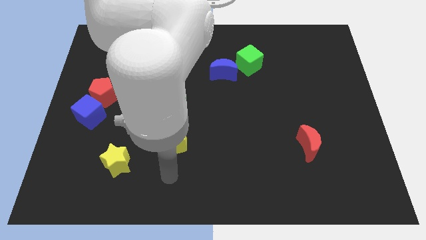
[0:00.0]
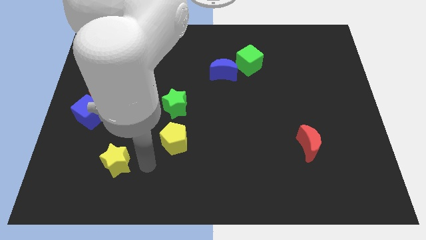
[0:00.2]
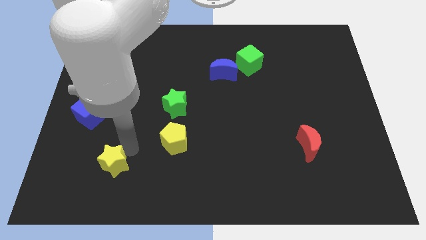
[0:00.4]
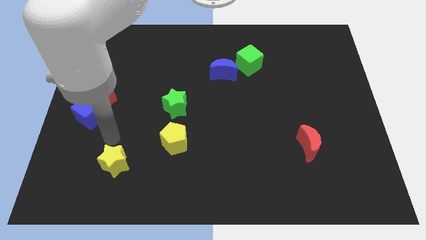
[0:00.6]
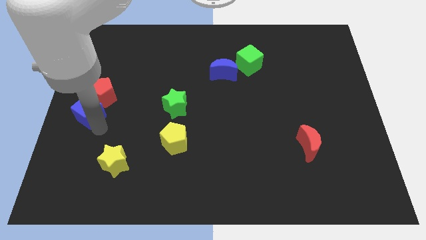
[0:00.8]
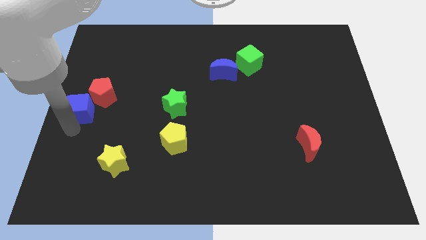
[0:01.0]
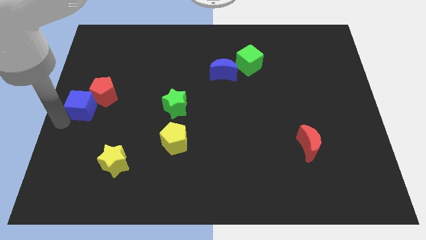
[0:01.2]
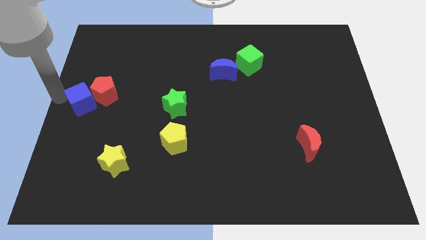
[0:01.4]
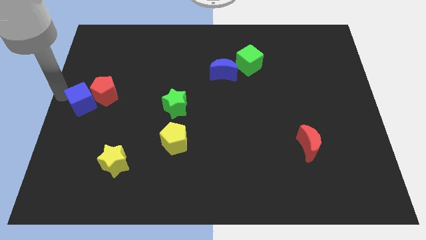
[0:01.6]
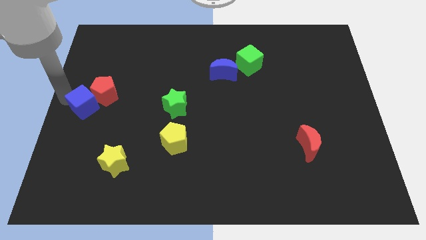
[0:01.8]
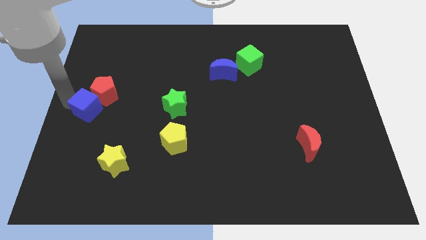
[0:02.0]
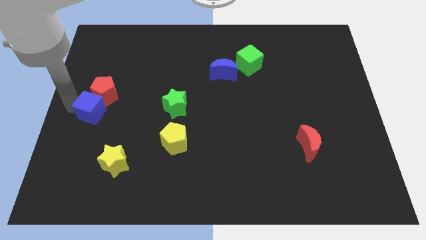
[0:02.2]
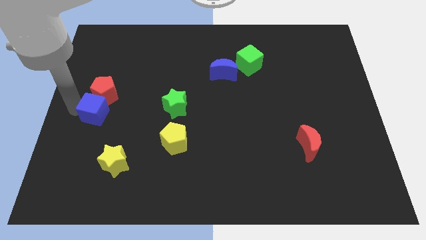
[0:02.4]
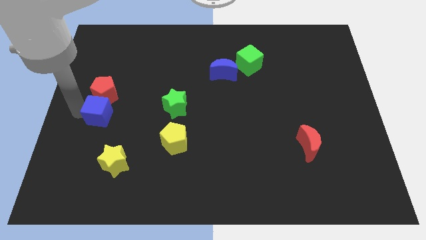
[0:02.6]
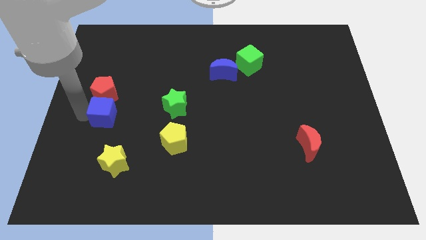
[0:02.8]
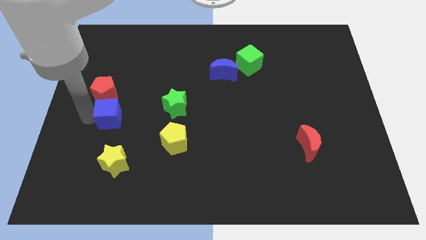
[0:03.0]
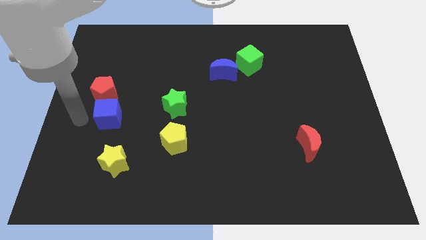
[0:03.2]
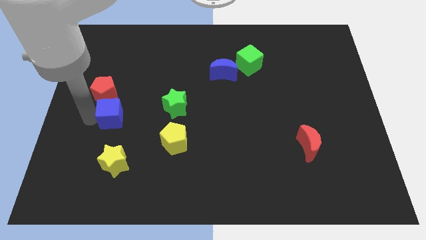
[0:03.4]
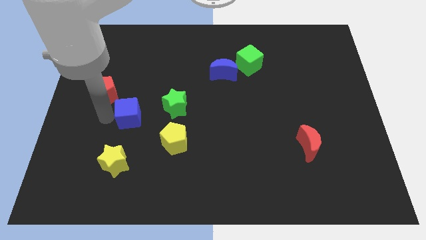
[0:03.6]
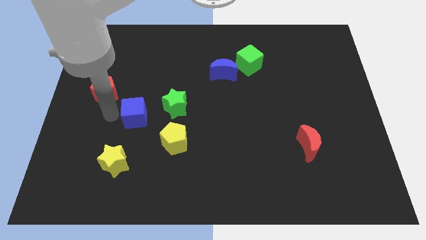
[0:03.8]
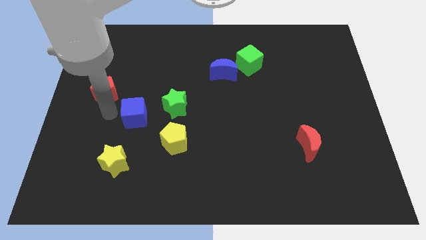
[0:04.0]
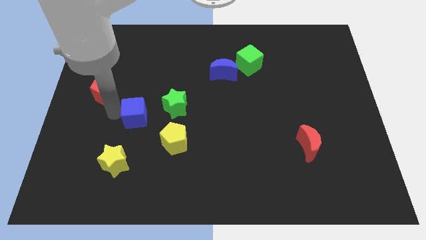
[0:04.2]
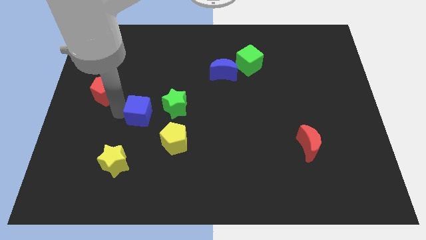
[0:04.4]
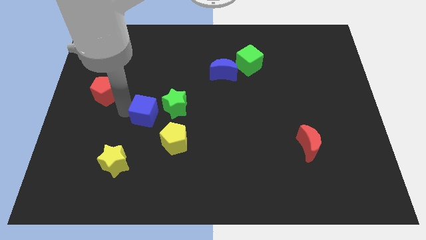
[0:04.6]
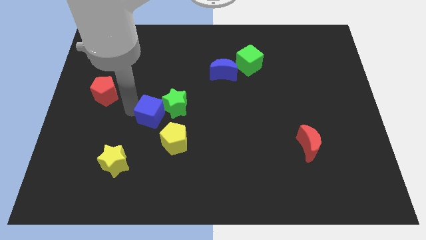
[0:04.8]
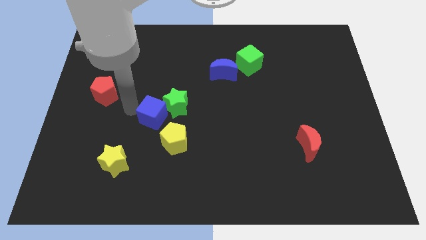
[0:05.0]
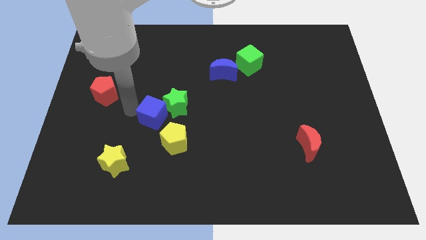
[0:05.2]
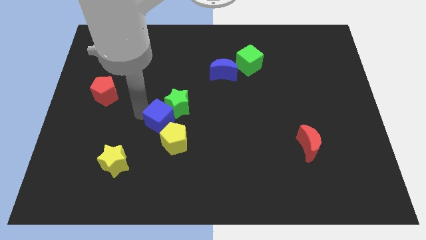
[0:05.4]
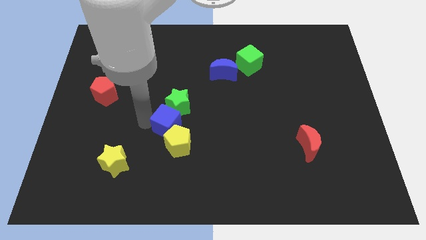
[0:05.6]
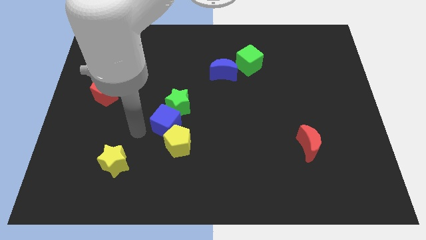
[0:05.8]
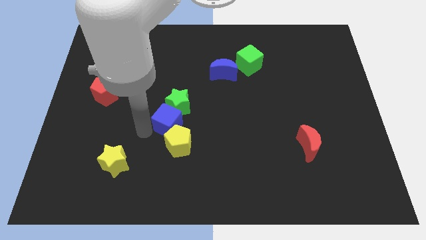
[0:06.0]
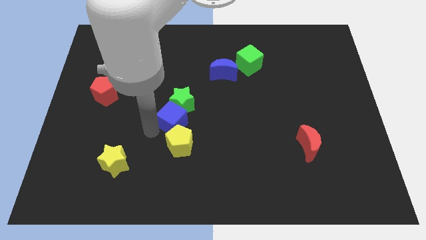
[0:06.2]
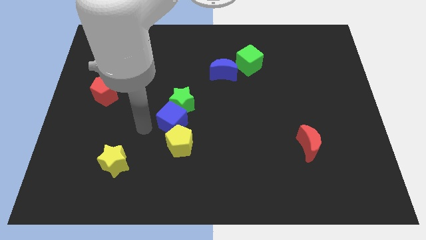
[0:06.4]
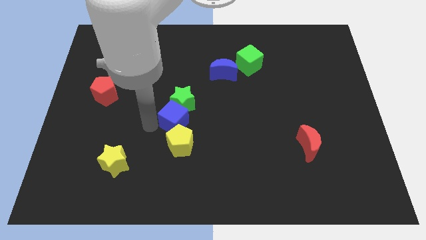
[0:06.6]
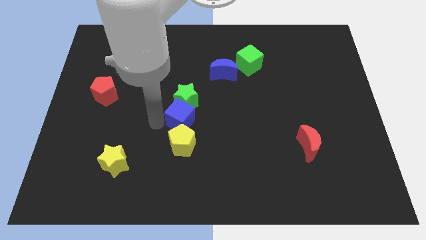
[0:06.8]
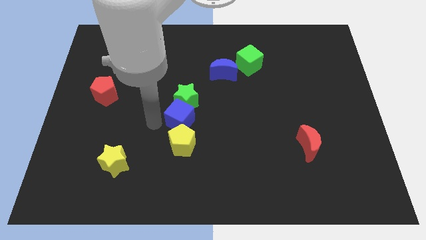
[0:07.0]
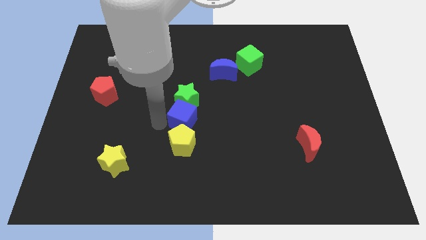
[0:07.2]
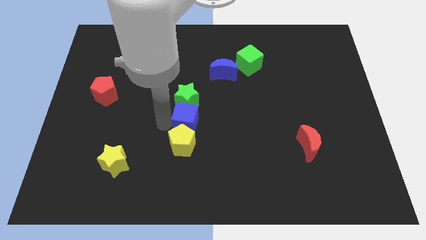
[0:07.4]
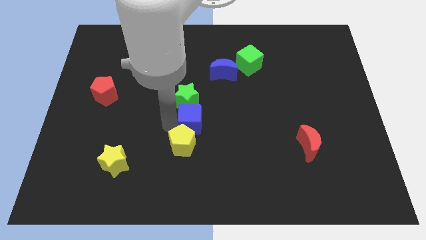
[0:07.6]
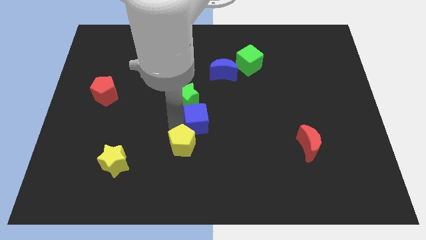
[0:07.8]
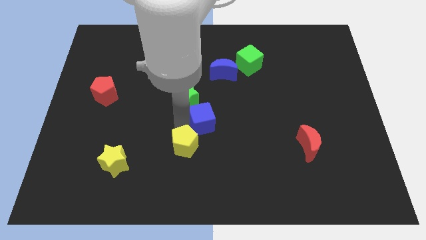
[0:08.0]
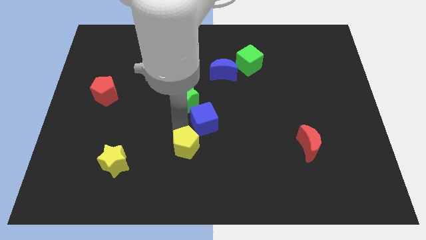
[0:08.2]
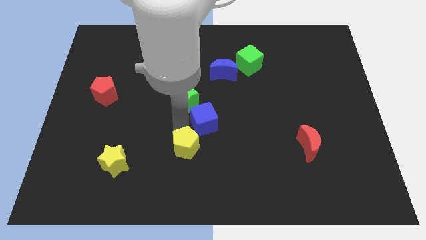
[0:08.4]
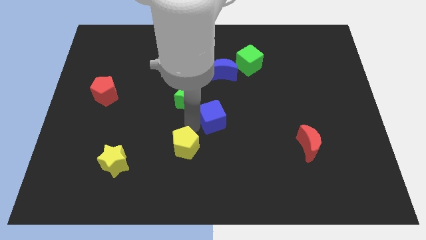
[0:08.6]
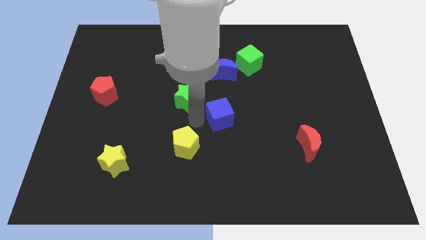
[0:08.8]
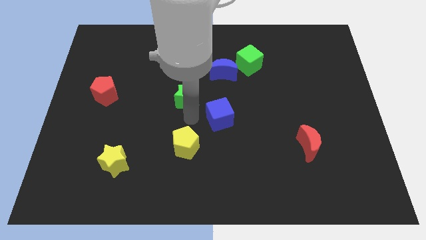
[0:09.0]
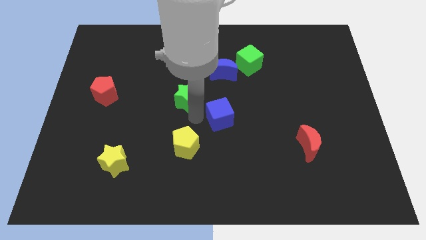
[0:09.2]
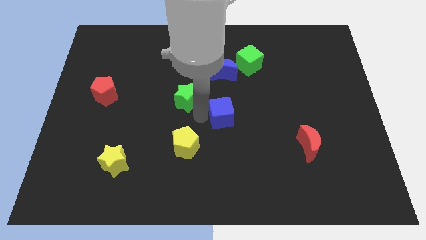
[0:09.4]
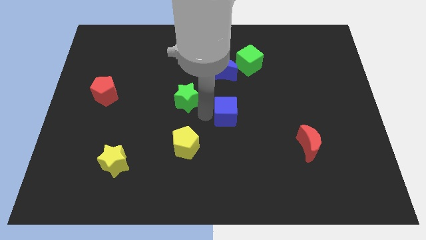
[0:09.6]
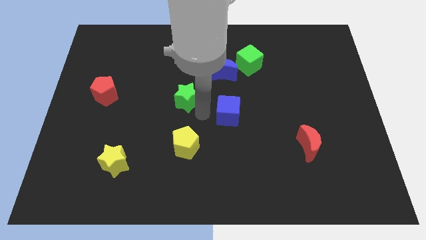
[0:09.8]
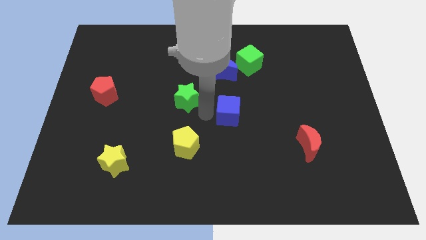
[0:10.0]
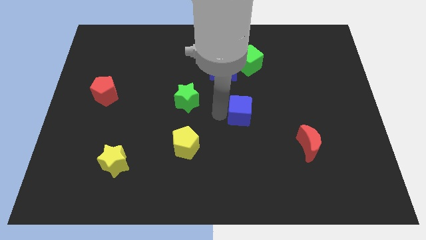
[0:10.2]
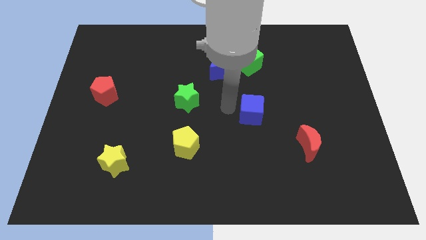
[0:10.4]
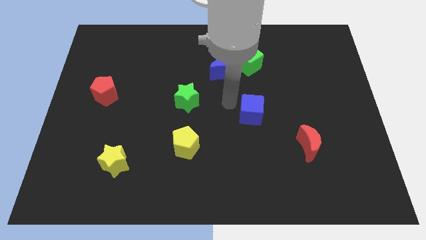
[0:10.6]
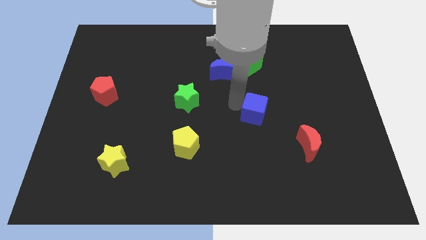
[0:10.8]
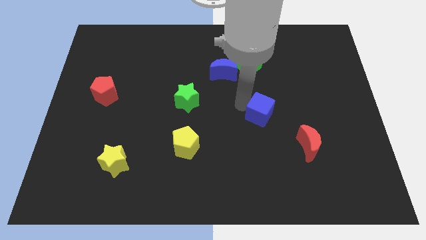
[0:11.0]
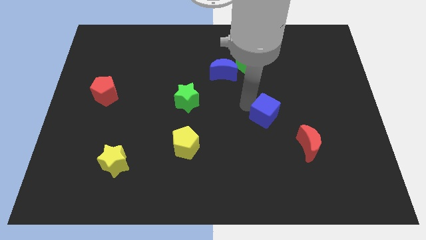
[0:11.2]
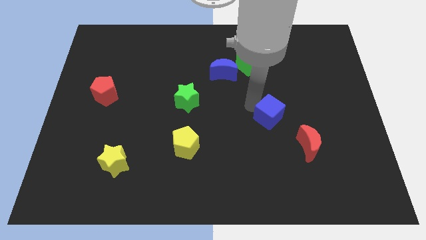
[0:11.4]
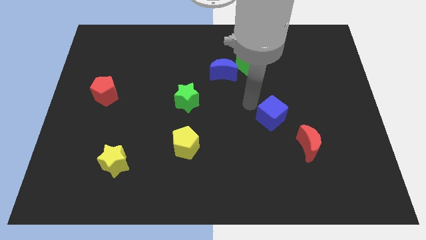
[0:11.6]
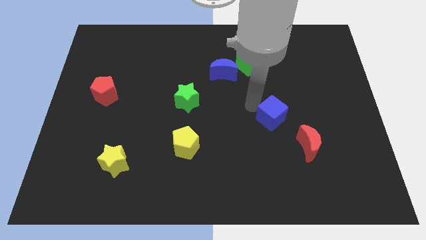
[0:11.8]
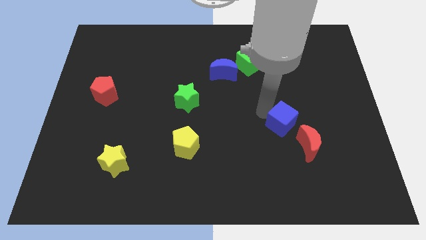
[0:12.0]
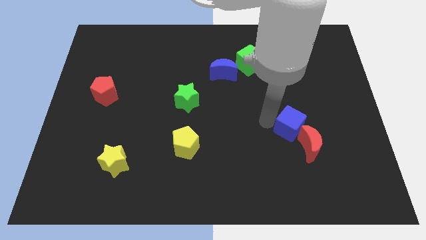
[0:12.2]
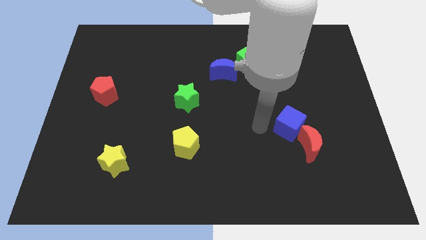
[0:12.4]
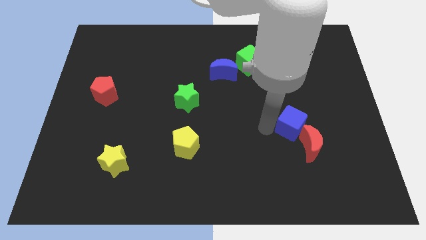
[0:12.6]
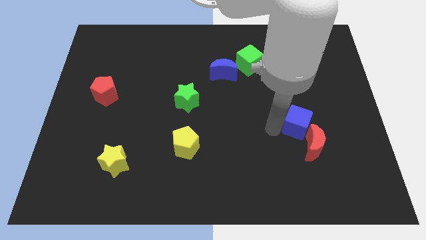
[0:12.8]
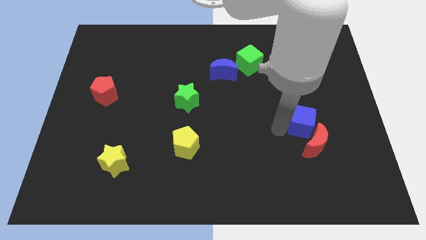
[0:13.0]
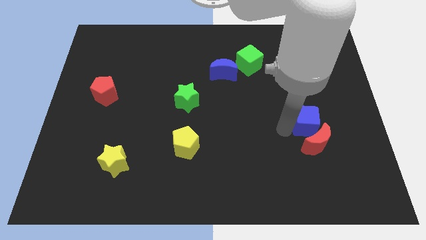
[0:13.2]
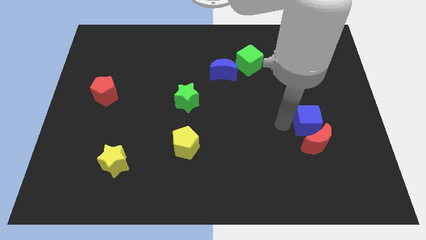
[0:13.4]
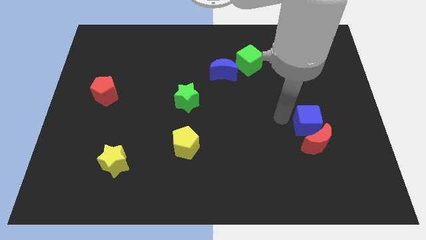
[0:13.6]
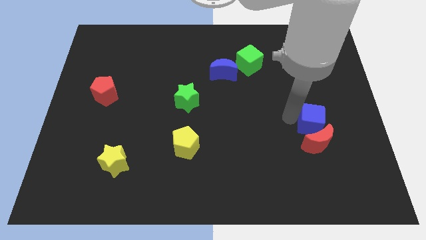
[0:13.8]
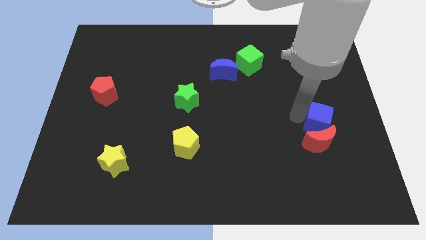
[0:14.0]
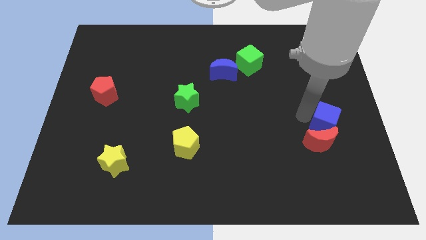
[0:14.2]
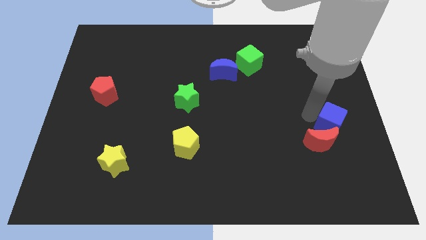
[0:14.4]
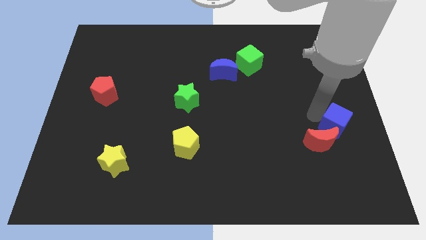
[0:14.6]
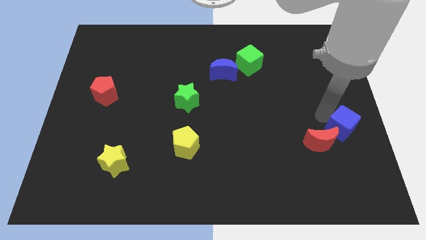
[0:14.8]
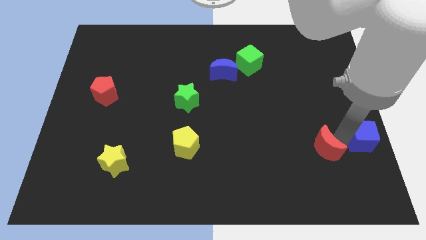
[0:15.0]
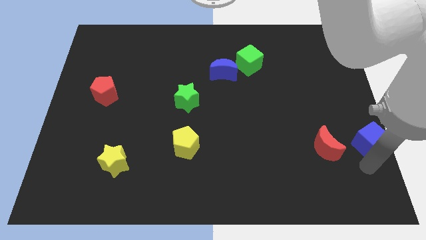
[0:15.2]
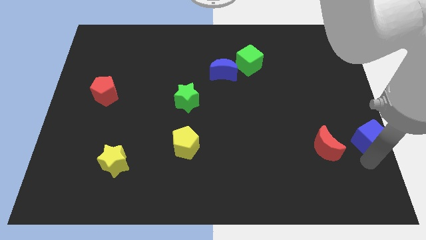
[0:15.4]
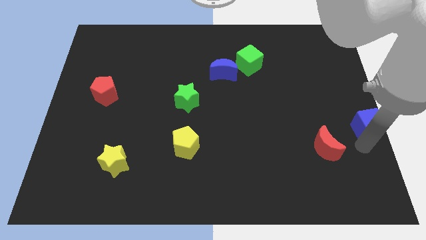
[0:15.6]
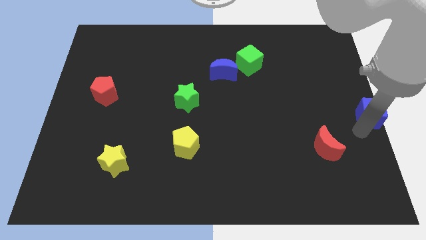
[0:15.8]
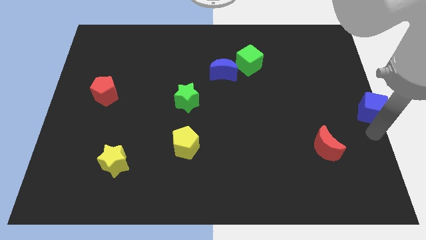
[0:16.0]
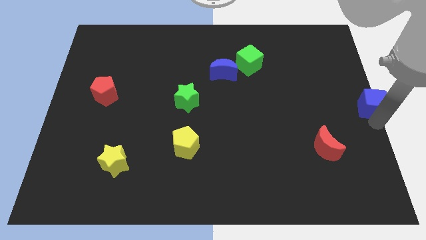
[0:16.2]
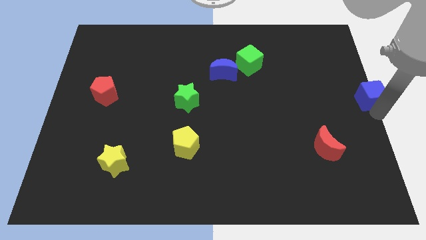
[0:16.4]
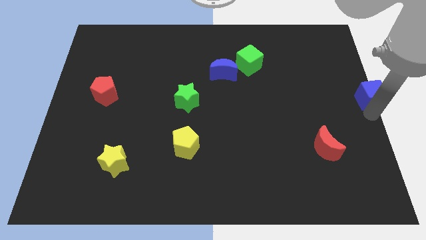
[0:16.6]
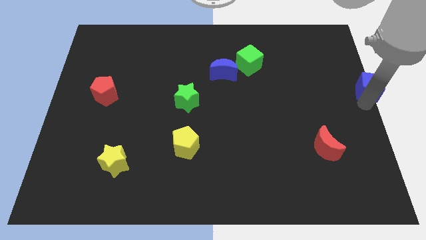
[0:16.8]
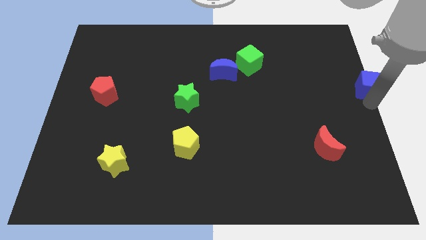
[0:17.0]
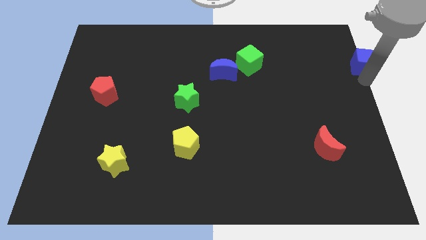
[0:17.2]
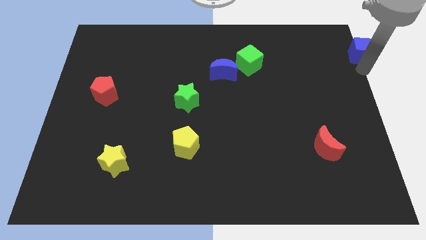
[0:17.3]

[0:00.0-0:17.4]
put the blue cube to the top right of the board
